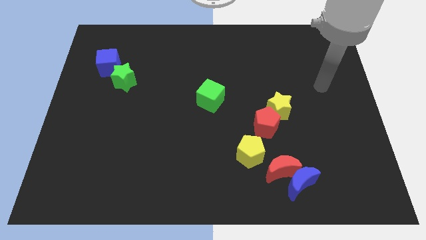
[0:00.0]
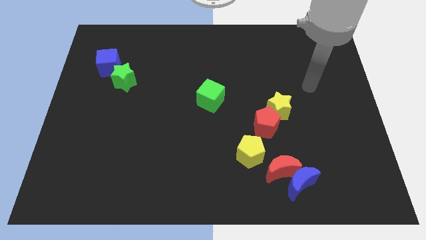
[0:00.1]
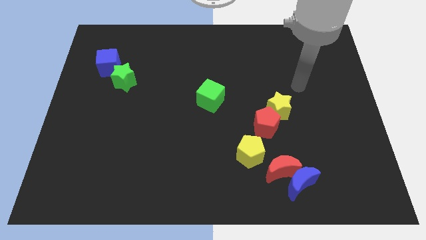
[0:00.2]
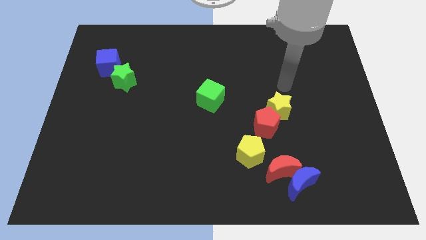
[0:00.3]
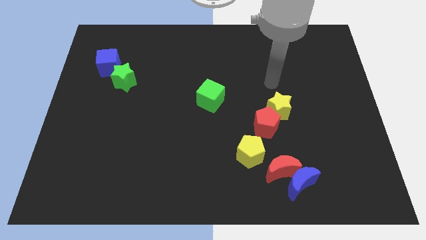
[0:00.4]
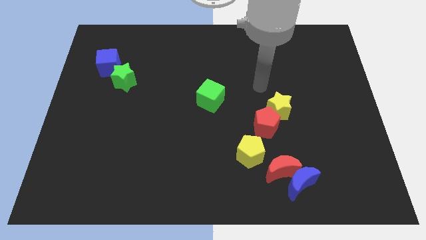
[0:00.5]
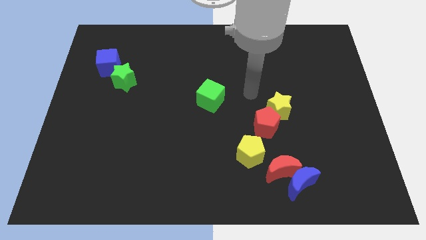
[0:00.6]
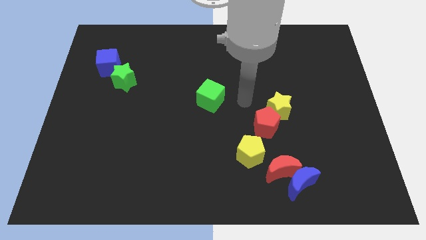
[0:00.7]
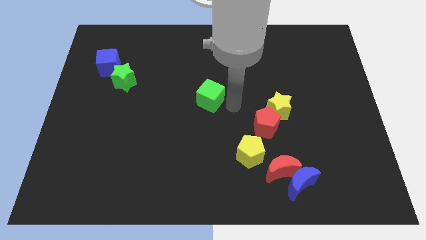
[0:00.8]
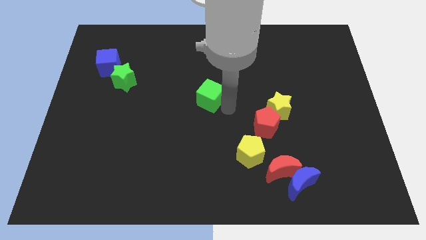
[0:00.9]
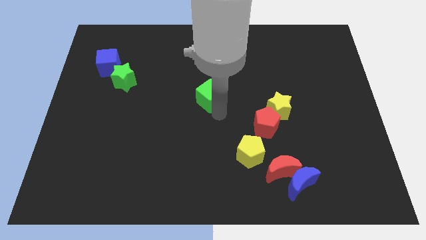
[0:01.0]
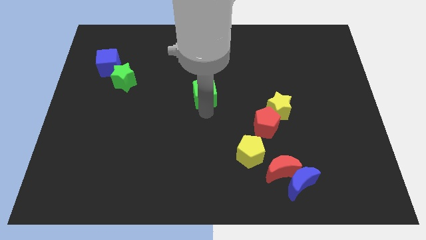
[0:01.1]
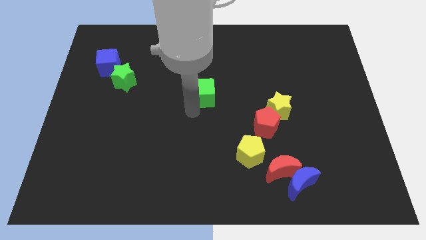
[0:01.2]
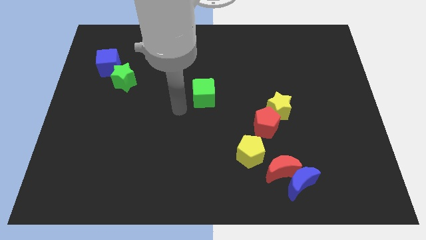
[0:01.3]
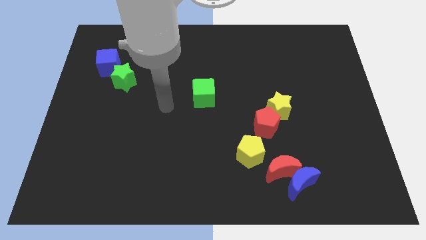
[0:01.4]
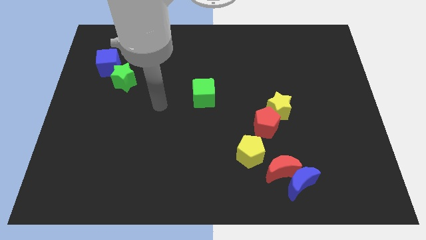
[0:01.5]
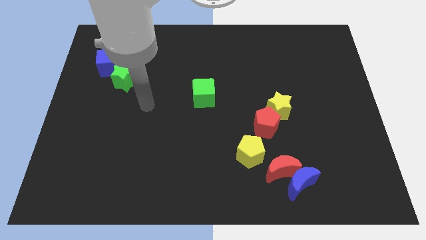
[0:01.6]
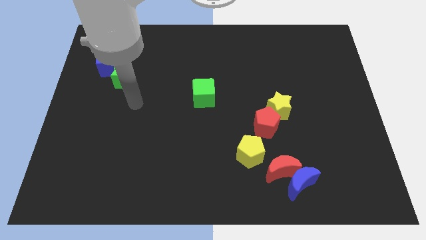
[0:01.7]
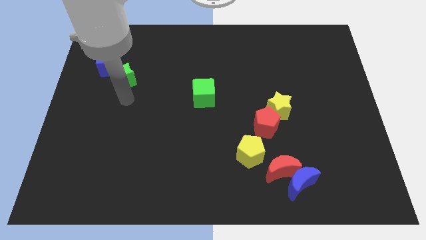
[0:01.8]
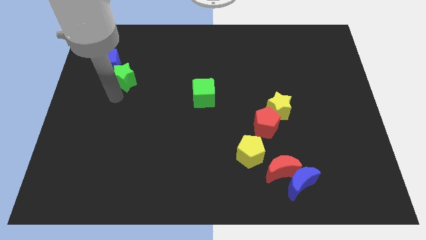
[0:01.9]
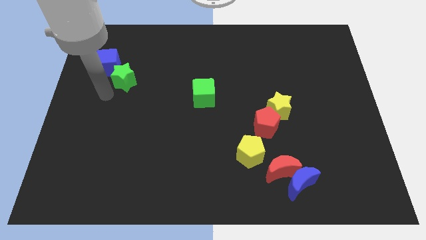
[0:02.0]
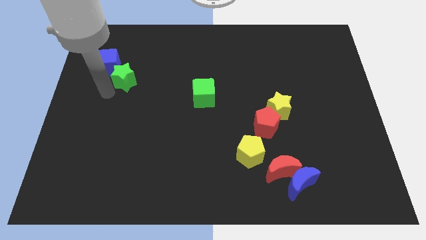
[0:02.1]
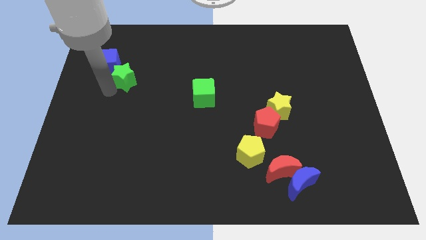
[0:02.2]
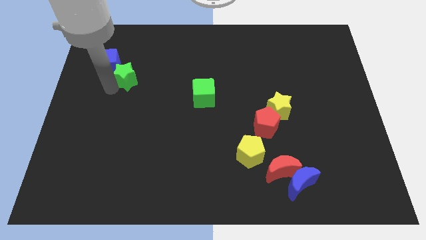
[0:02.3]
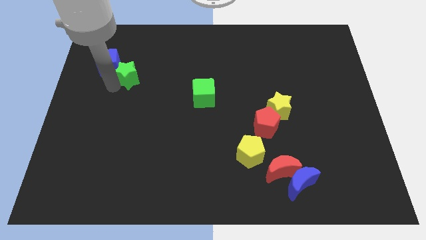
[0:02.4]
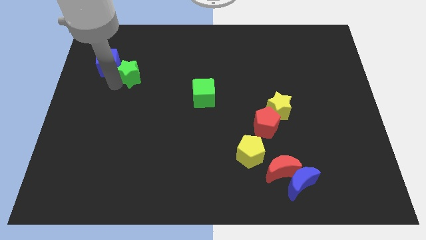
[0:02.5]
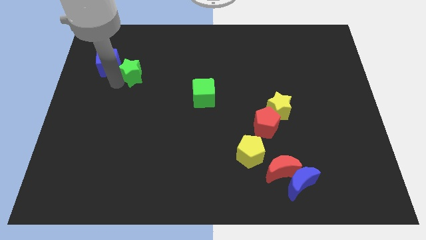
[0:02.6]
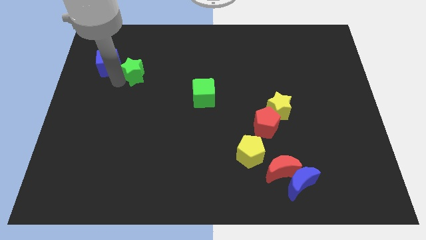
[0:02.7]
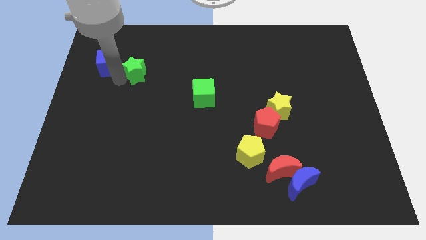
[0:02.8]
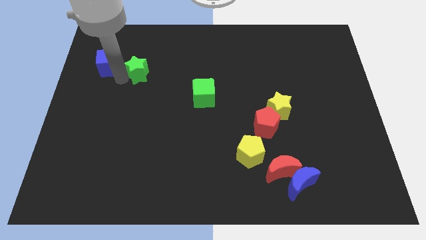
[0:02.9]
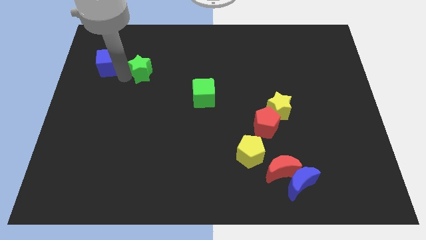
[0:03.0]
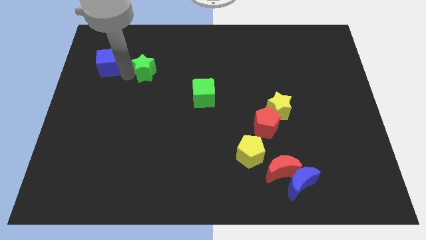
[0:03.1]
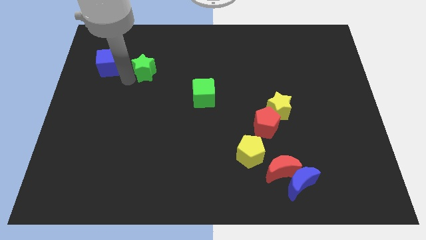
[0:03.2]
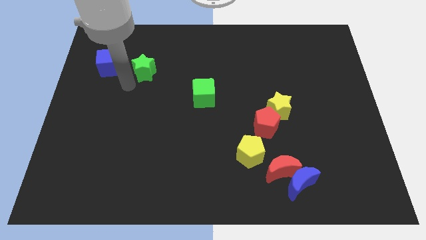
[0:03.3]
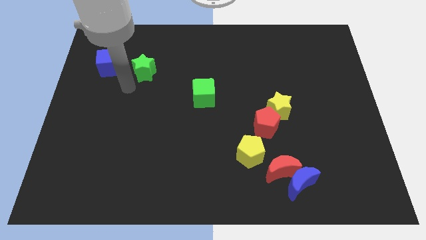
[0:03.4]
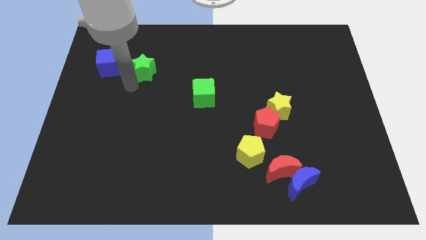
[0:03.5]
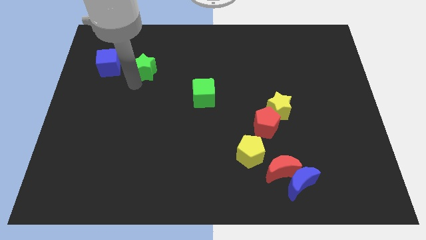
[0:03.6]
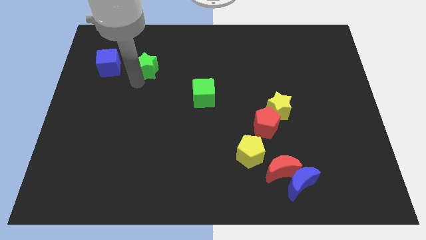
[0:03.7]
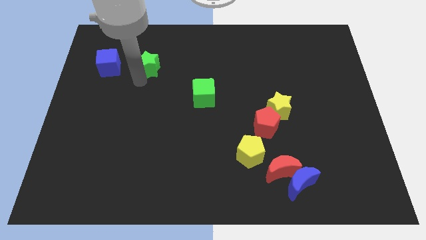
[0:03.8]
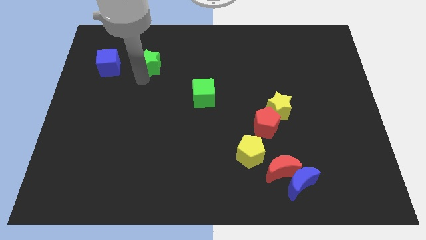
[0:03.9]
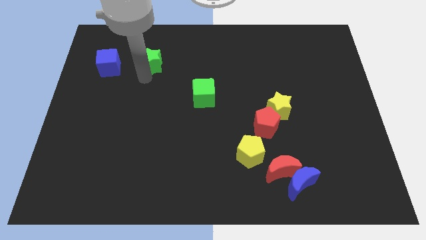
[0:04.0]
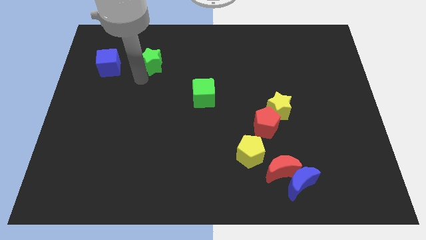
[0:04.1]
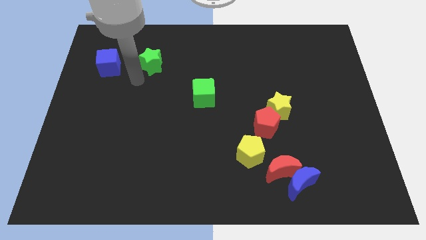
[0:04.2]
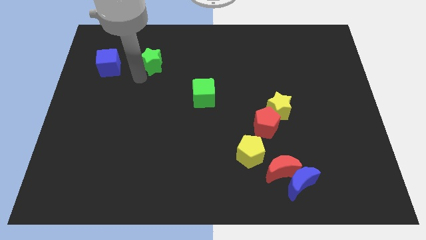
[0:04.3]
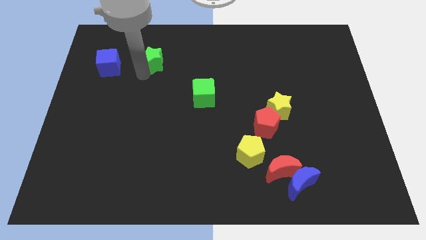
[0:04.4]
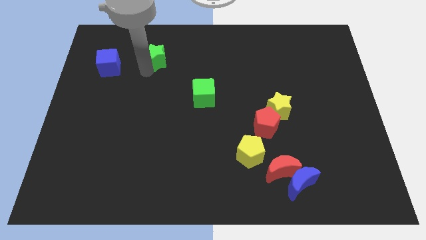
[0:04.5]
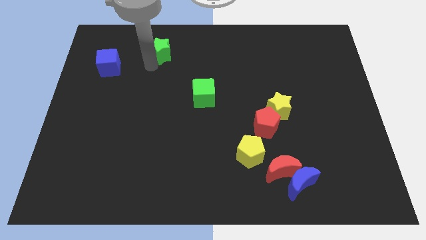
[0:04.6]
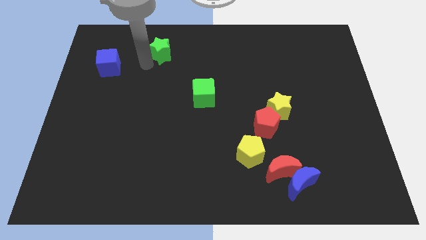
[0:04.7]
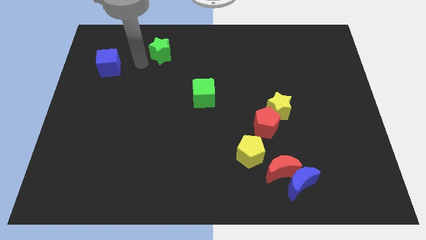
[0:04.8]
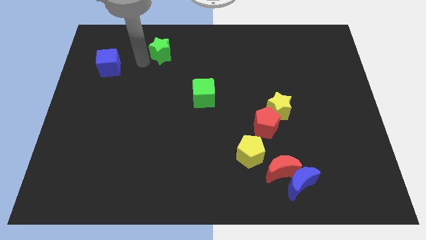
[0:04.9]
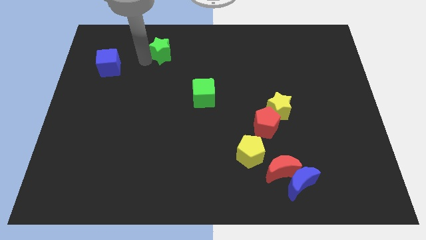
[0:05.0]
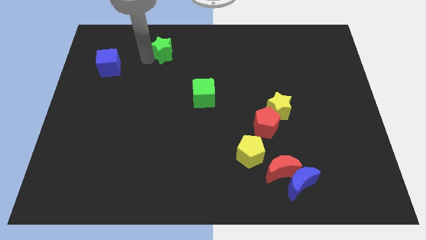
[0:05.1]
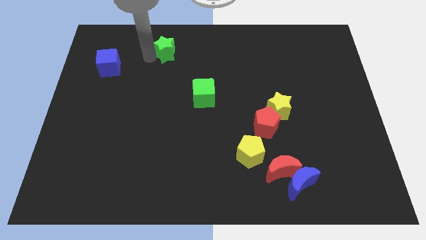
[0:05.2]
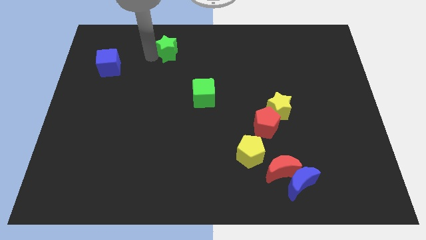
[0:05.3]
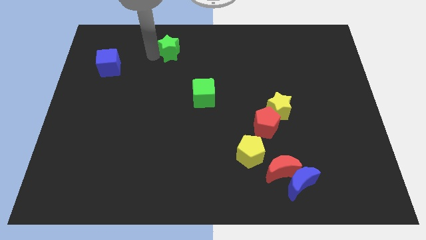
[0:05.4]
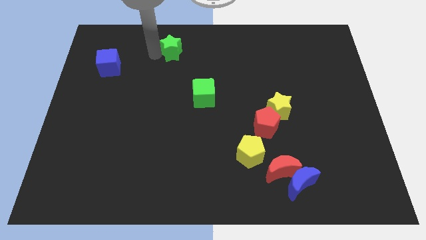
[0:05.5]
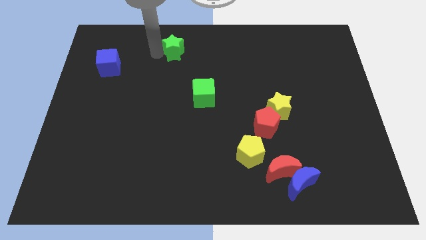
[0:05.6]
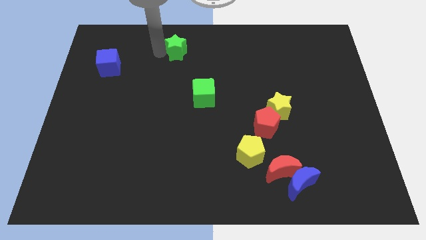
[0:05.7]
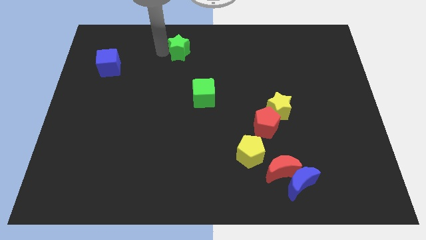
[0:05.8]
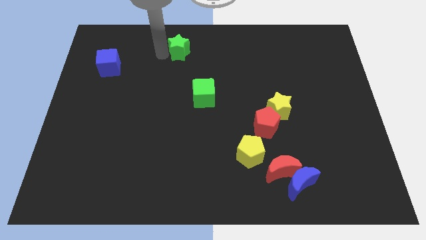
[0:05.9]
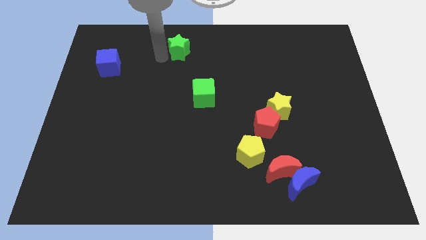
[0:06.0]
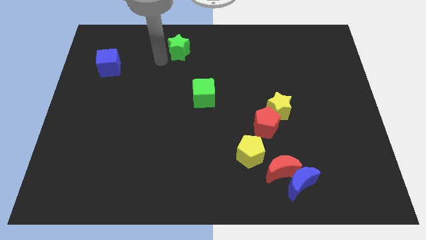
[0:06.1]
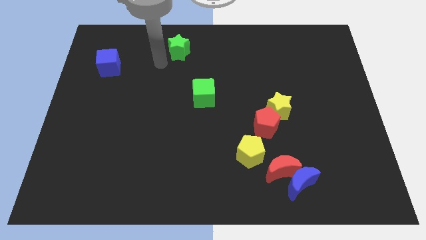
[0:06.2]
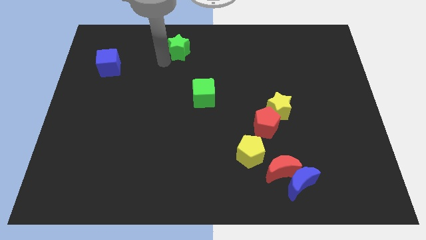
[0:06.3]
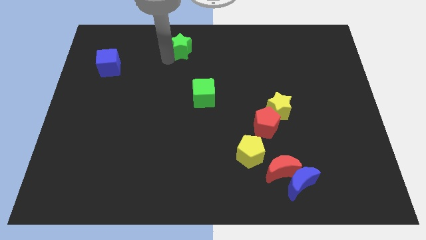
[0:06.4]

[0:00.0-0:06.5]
push the green star to the top side
